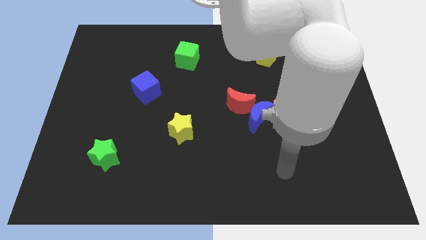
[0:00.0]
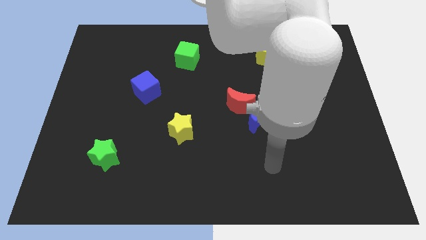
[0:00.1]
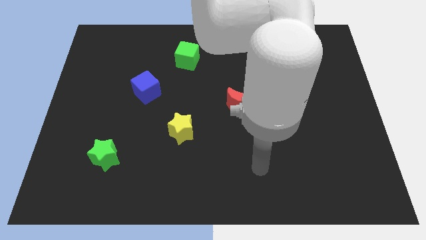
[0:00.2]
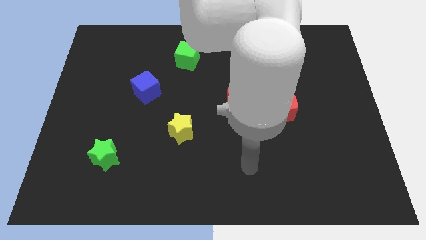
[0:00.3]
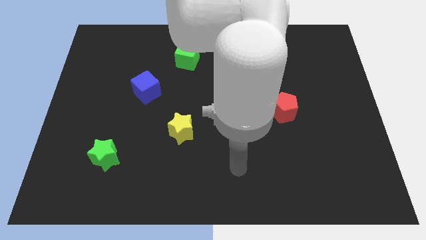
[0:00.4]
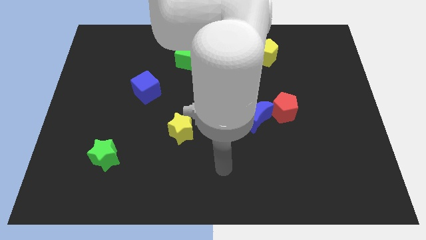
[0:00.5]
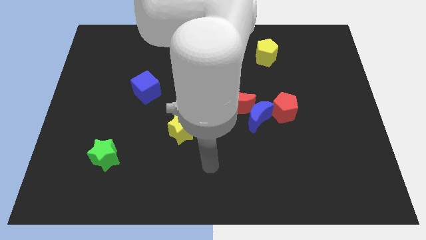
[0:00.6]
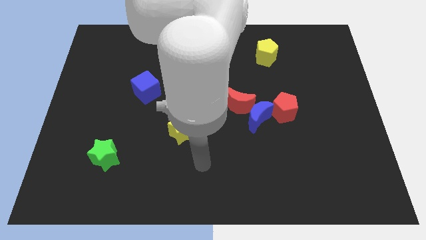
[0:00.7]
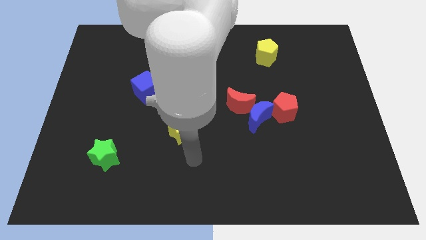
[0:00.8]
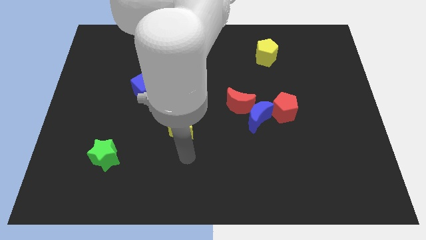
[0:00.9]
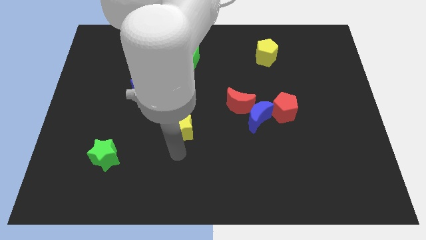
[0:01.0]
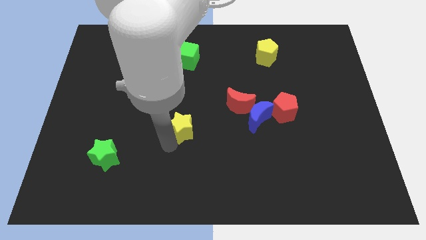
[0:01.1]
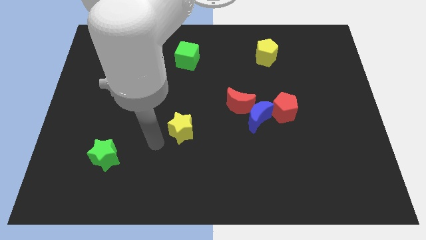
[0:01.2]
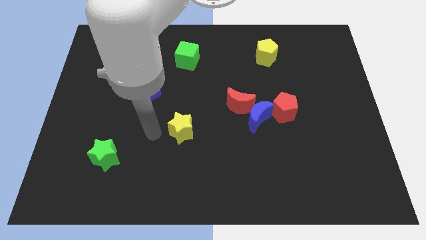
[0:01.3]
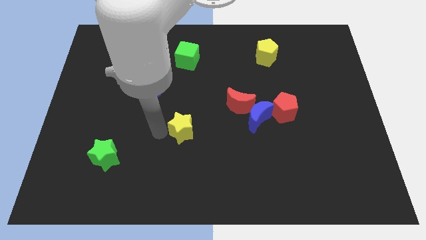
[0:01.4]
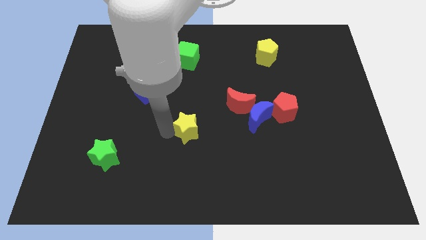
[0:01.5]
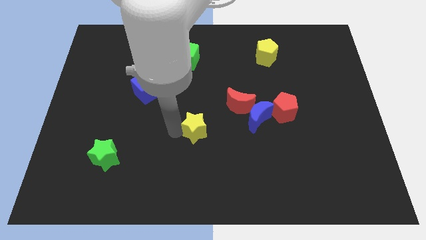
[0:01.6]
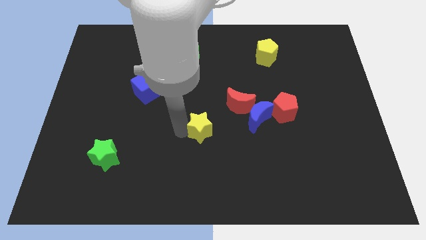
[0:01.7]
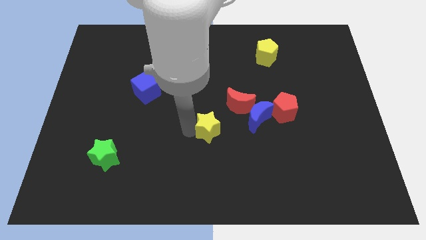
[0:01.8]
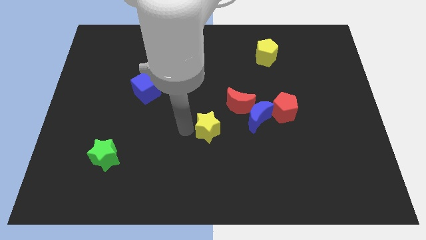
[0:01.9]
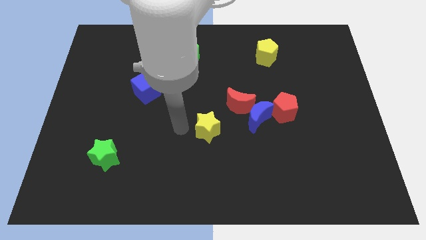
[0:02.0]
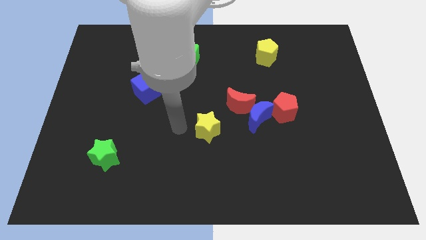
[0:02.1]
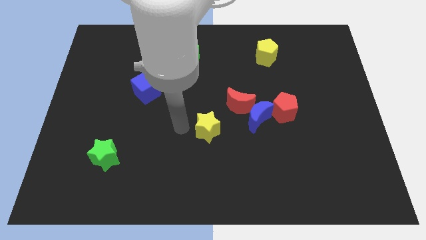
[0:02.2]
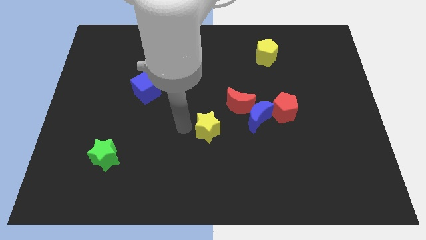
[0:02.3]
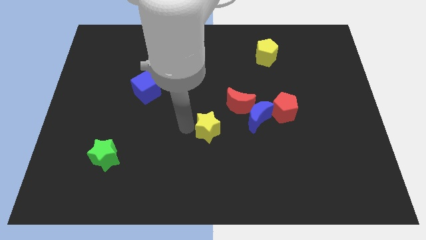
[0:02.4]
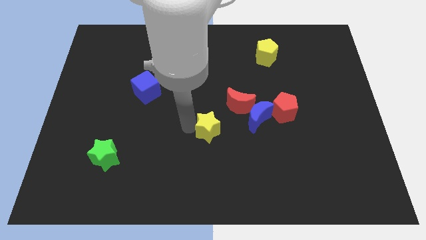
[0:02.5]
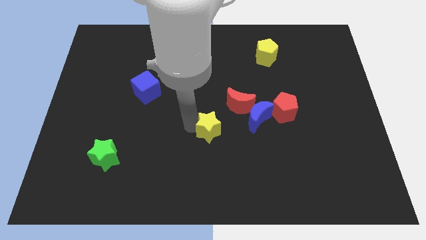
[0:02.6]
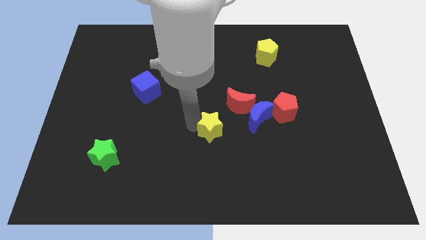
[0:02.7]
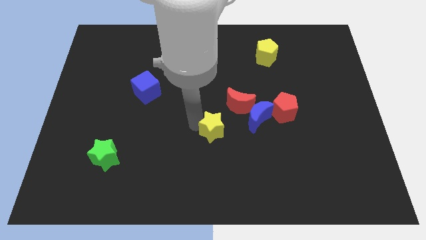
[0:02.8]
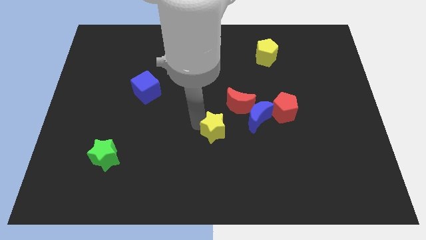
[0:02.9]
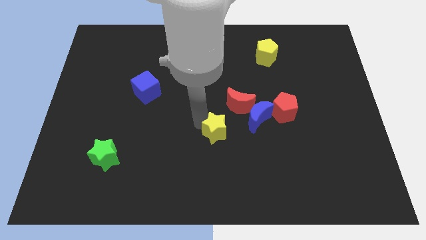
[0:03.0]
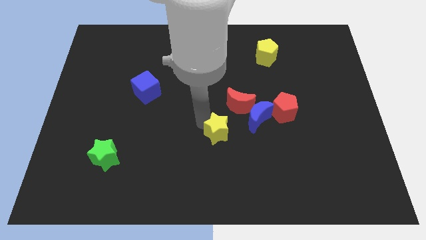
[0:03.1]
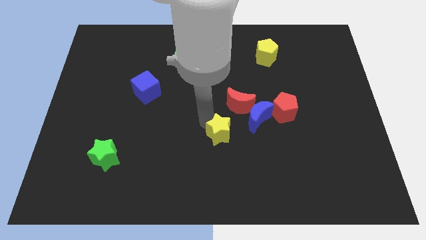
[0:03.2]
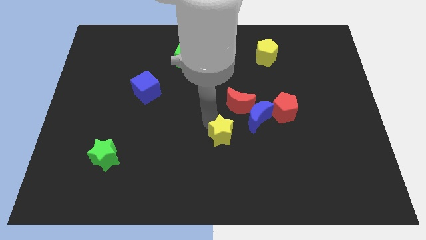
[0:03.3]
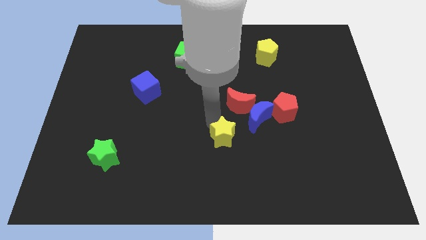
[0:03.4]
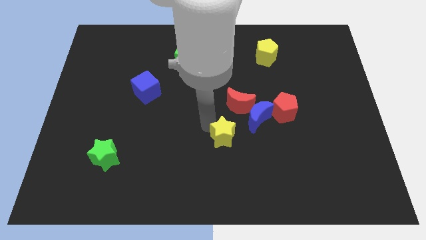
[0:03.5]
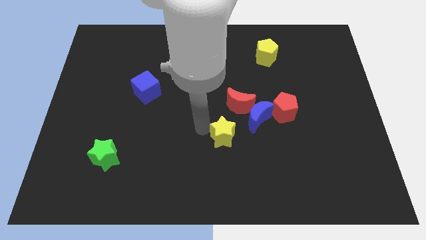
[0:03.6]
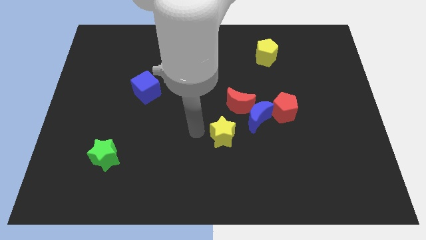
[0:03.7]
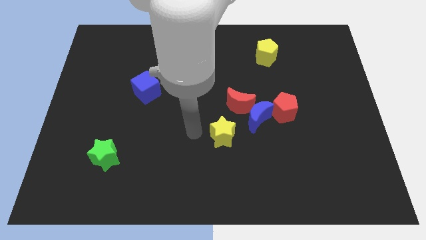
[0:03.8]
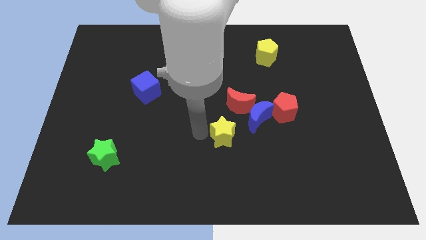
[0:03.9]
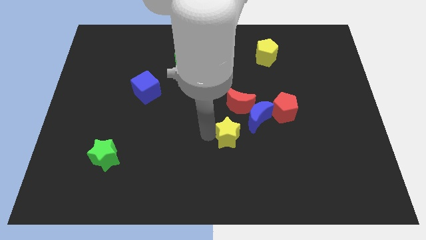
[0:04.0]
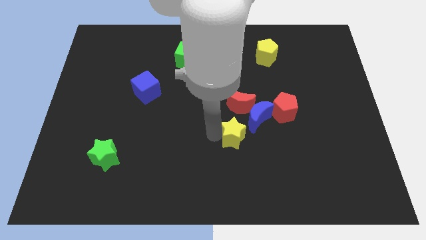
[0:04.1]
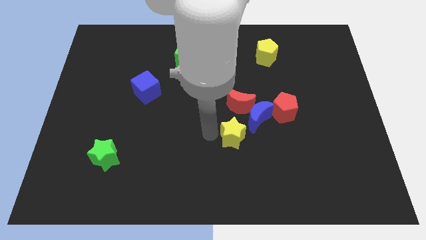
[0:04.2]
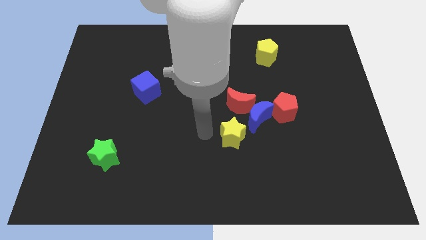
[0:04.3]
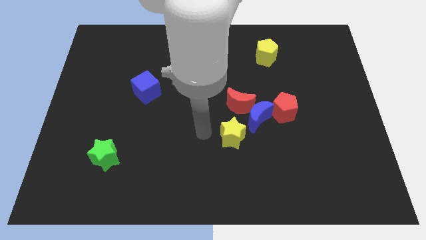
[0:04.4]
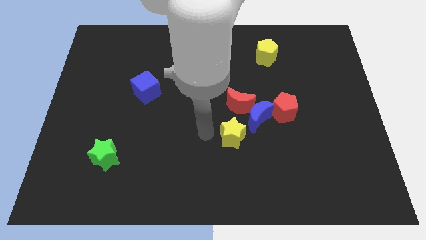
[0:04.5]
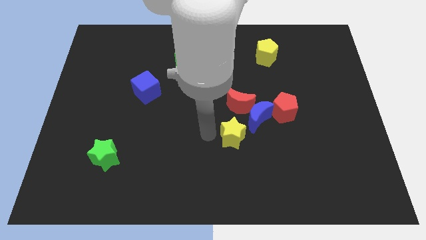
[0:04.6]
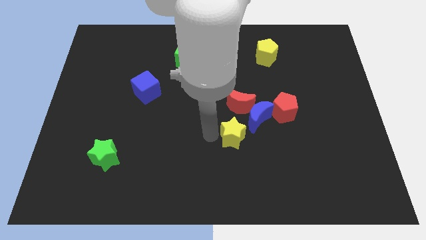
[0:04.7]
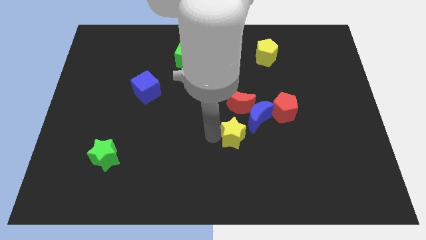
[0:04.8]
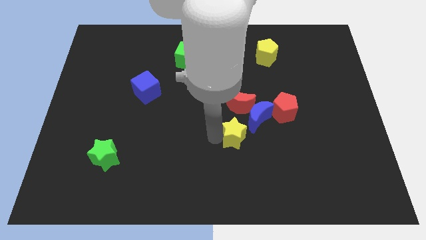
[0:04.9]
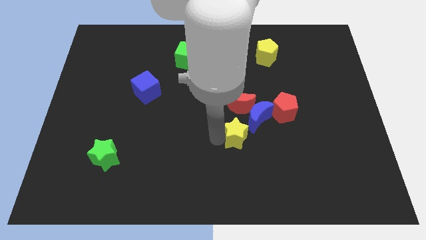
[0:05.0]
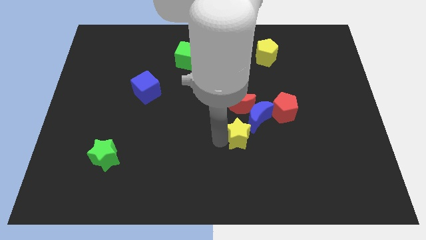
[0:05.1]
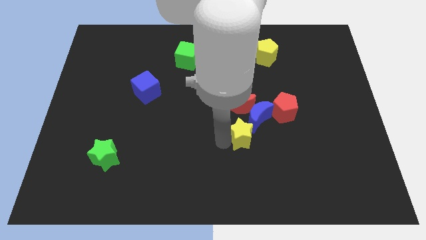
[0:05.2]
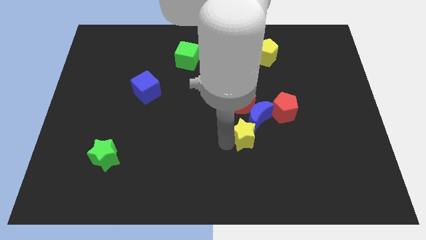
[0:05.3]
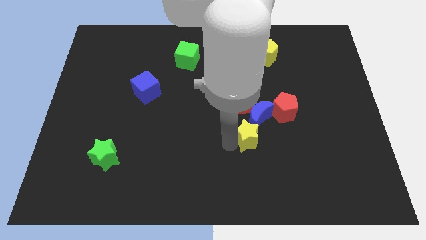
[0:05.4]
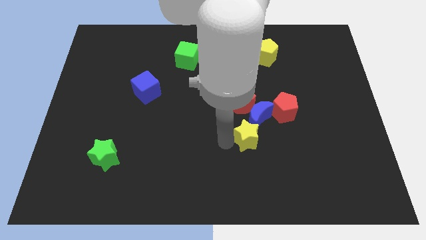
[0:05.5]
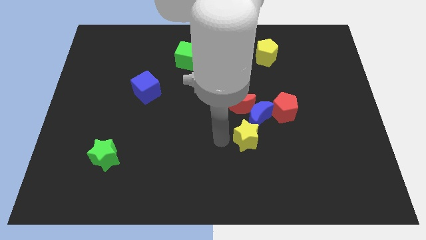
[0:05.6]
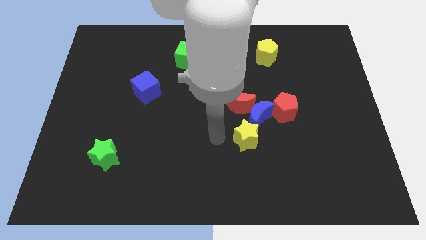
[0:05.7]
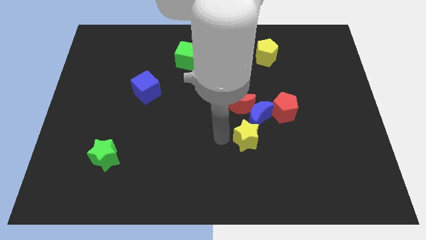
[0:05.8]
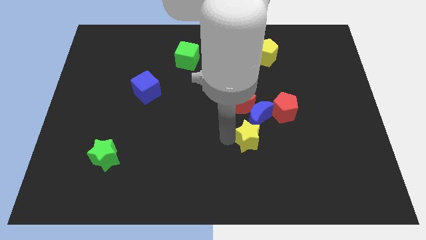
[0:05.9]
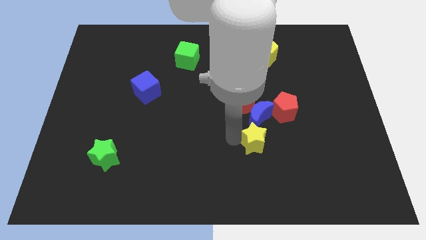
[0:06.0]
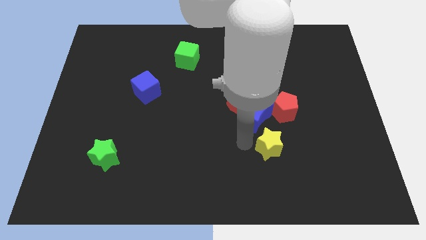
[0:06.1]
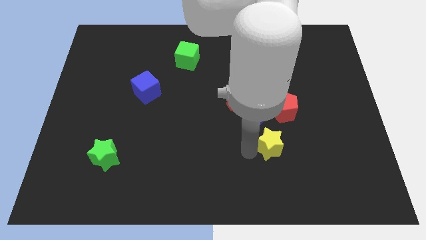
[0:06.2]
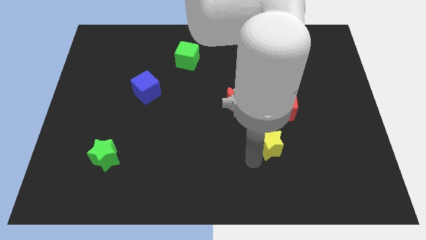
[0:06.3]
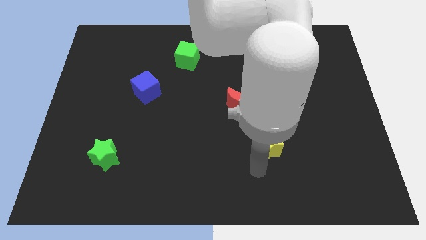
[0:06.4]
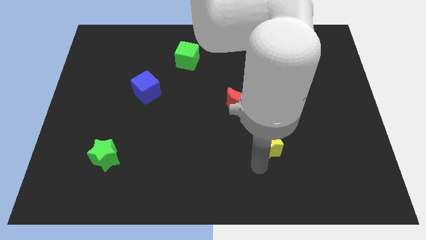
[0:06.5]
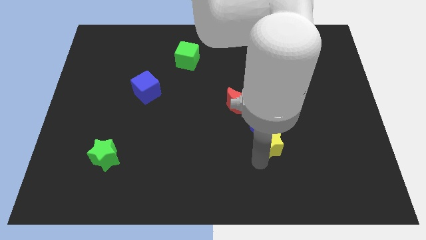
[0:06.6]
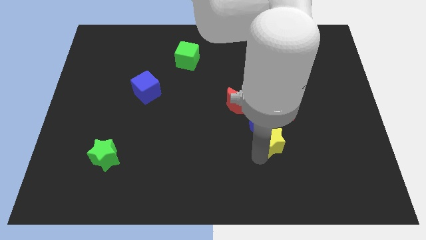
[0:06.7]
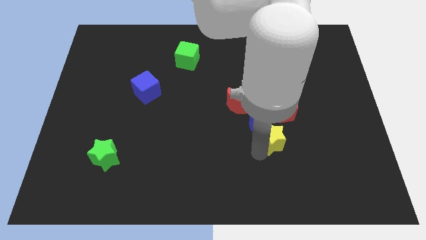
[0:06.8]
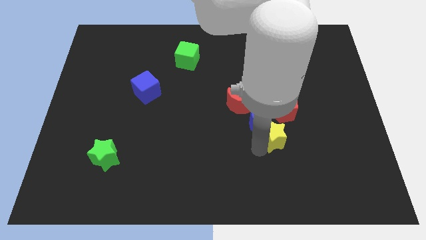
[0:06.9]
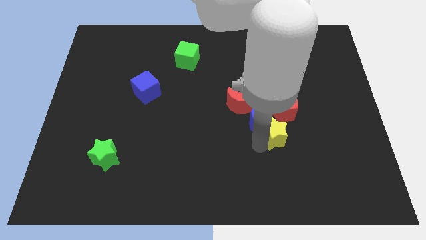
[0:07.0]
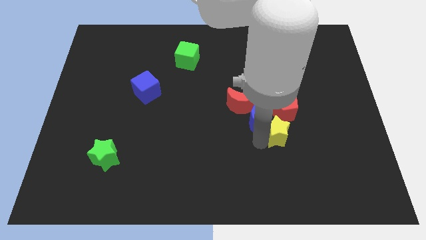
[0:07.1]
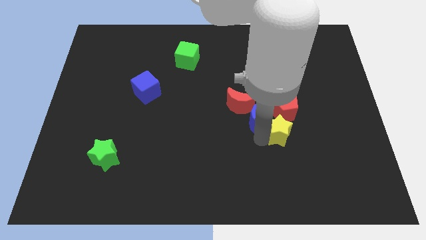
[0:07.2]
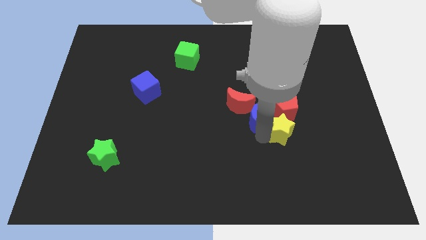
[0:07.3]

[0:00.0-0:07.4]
move the yellow star to the red pentagon
